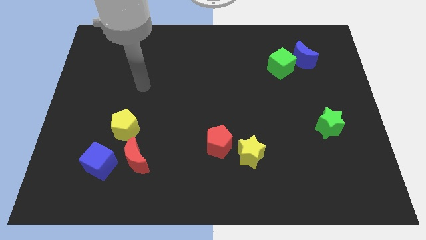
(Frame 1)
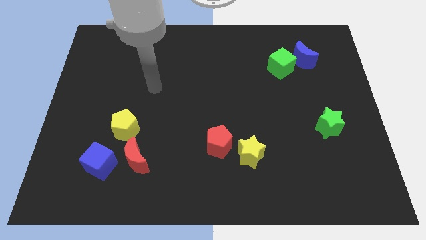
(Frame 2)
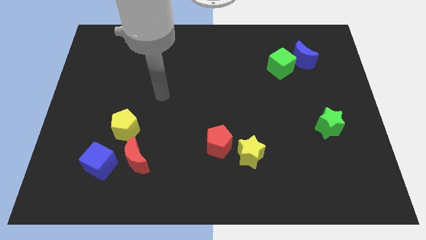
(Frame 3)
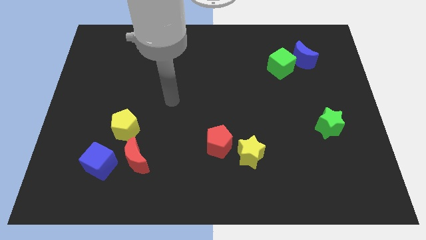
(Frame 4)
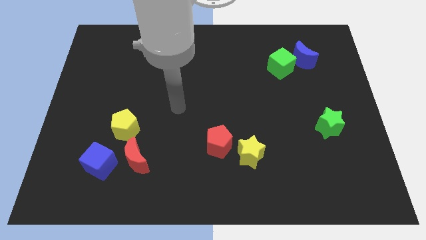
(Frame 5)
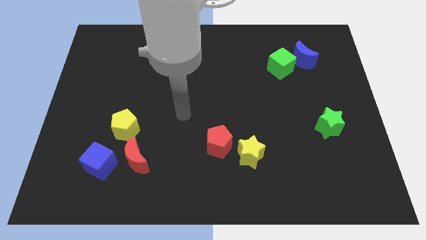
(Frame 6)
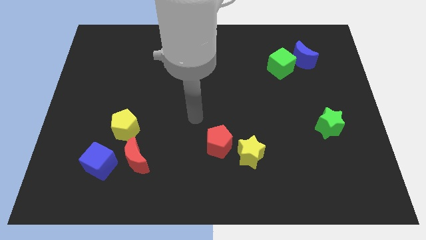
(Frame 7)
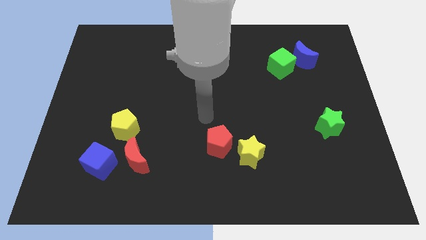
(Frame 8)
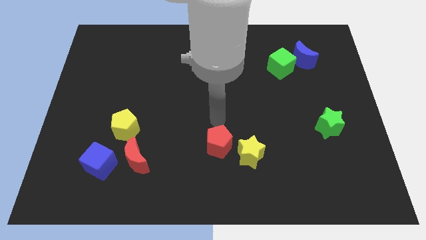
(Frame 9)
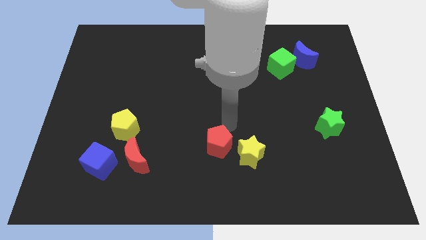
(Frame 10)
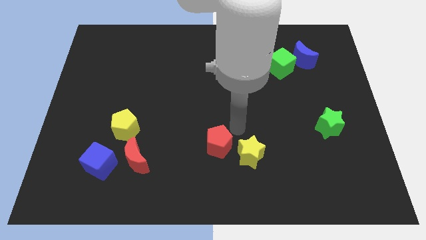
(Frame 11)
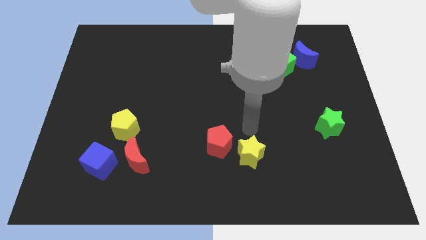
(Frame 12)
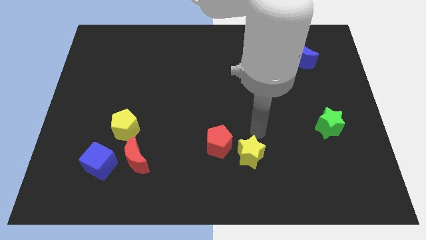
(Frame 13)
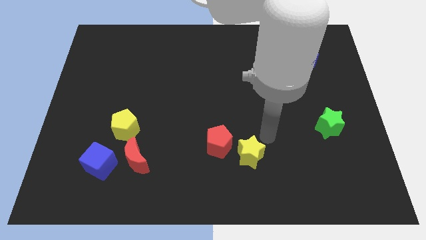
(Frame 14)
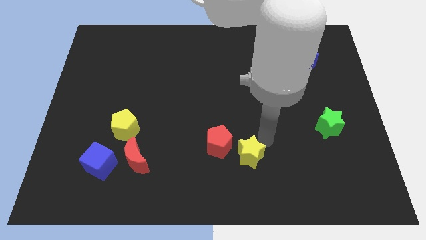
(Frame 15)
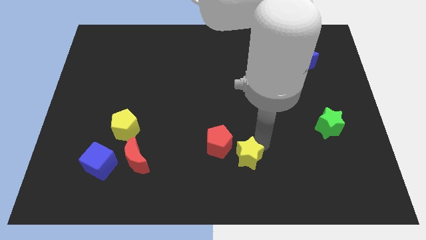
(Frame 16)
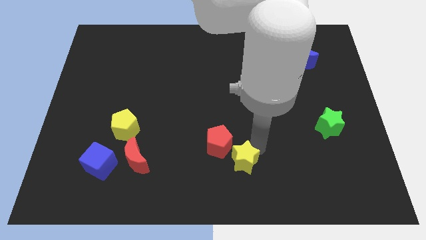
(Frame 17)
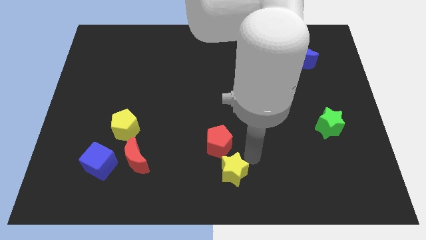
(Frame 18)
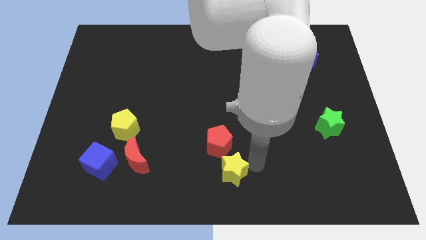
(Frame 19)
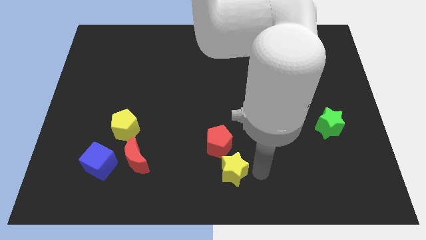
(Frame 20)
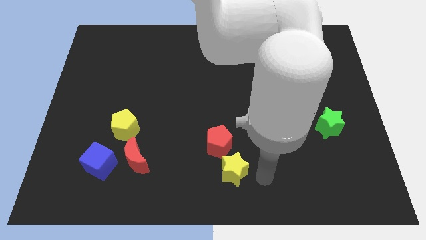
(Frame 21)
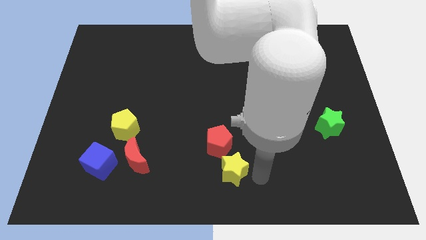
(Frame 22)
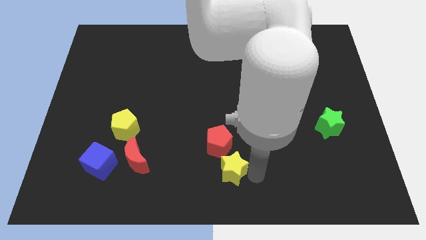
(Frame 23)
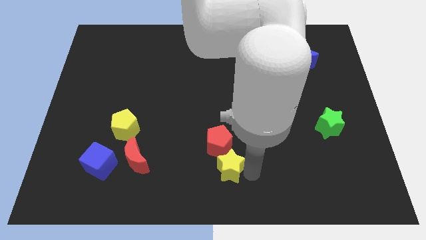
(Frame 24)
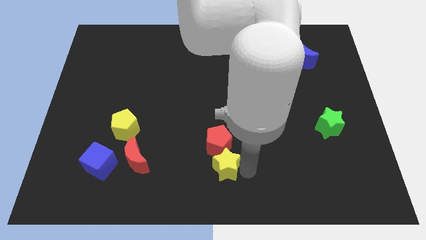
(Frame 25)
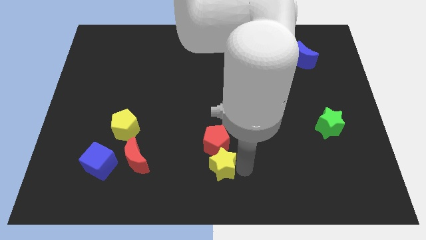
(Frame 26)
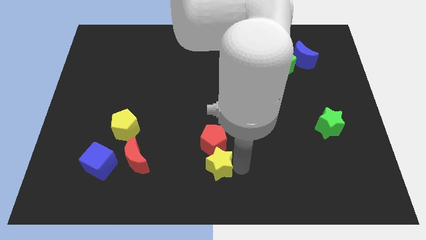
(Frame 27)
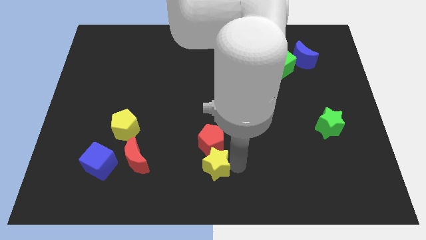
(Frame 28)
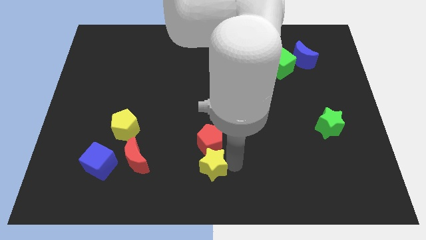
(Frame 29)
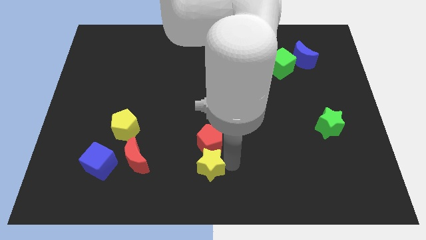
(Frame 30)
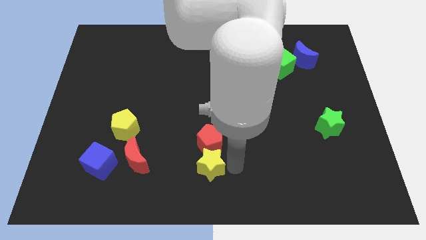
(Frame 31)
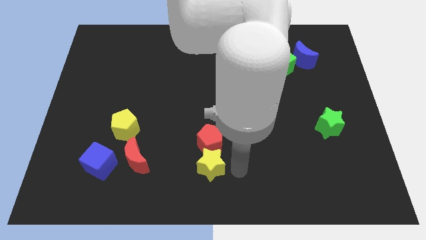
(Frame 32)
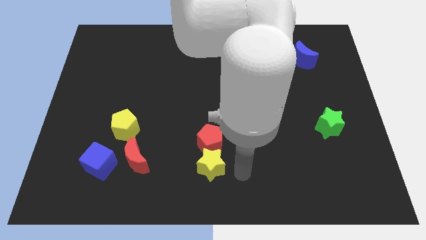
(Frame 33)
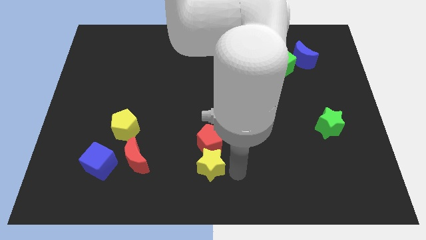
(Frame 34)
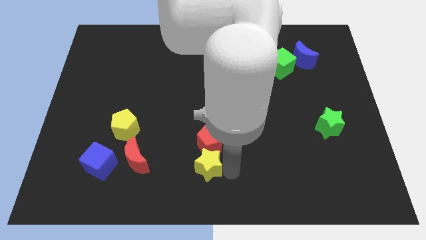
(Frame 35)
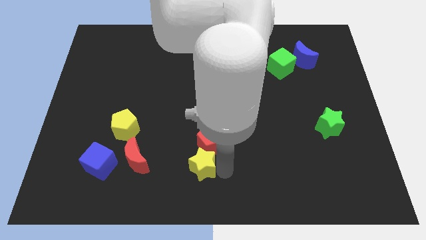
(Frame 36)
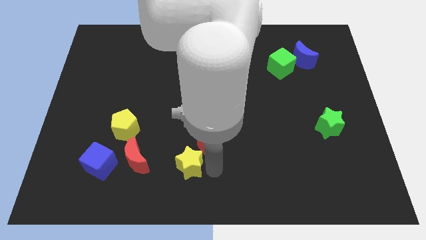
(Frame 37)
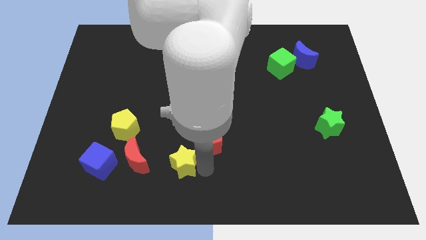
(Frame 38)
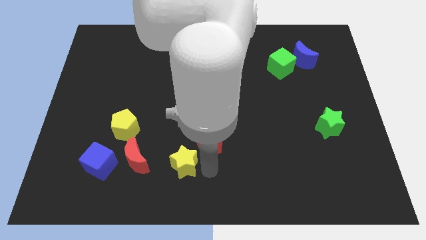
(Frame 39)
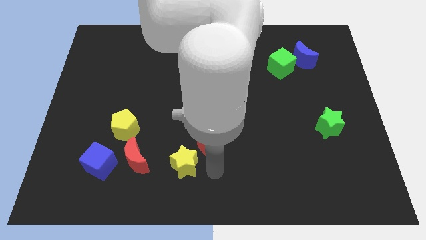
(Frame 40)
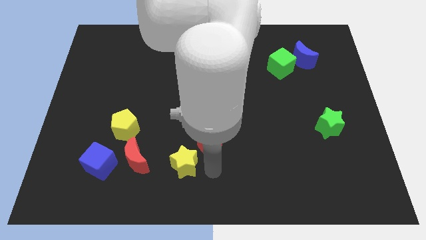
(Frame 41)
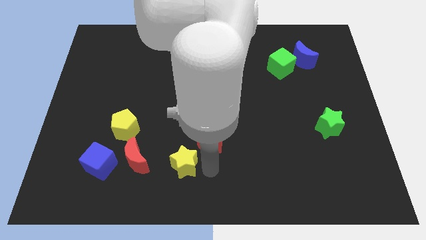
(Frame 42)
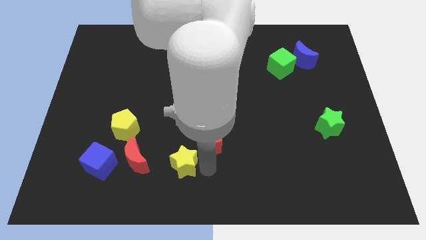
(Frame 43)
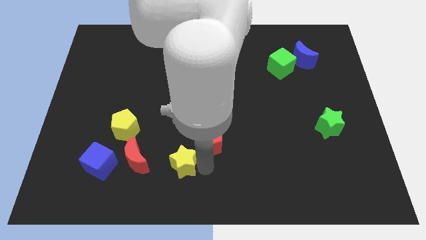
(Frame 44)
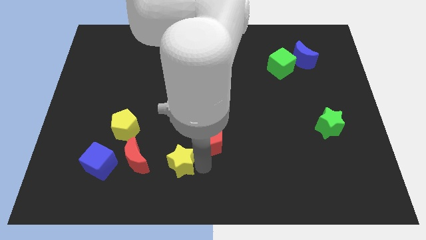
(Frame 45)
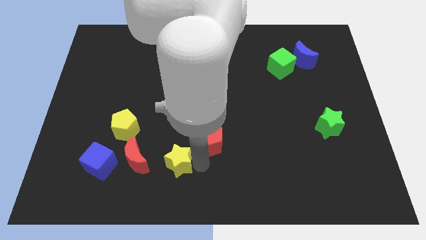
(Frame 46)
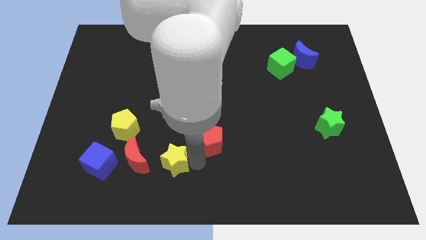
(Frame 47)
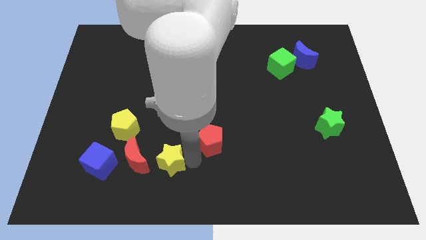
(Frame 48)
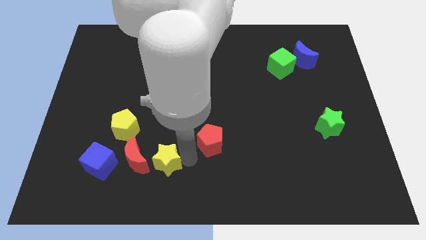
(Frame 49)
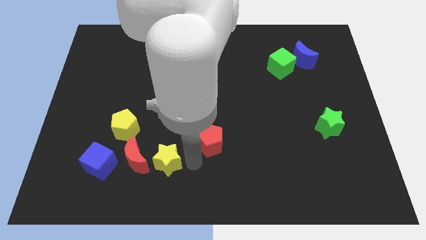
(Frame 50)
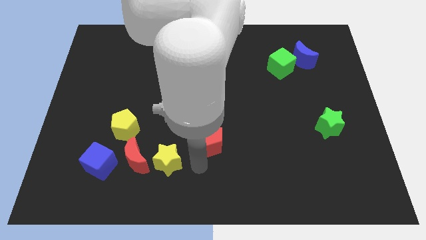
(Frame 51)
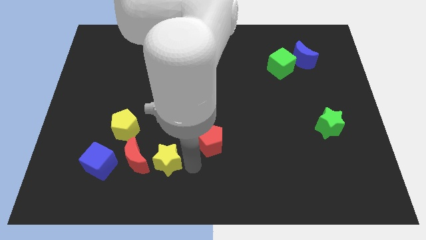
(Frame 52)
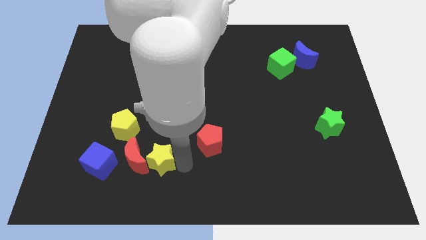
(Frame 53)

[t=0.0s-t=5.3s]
slide the yellow star close to the red moon

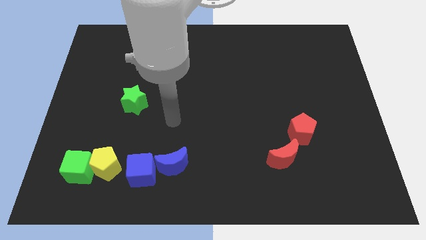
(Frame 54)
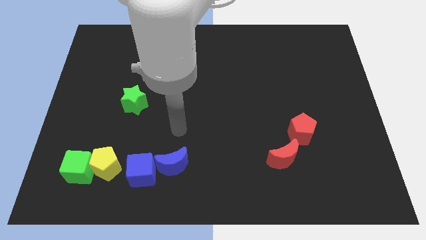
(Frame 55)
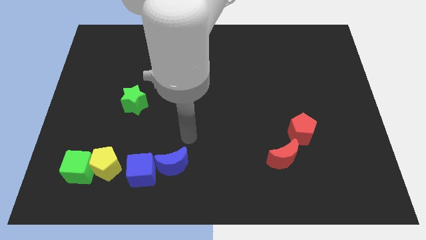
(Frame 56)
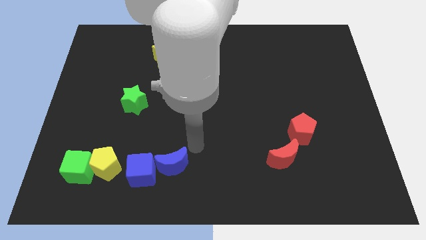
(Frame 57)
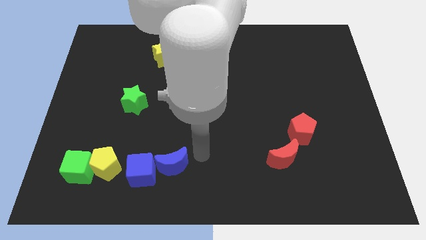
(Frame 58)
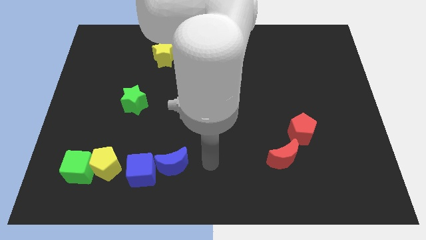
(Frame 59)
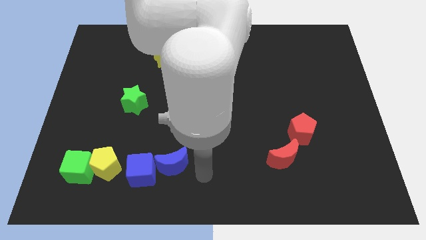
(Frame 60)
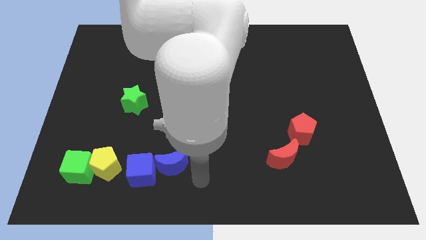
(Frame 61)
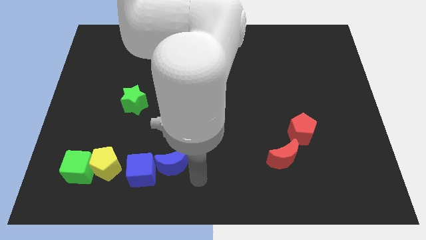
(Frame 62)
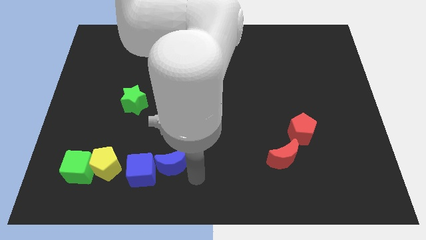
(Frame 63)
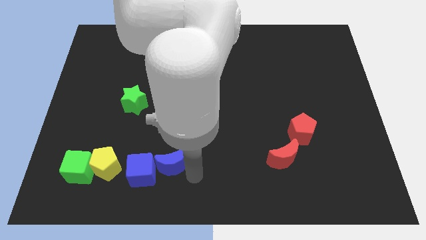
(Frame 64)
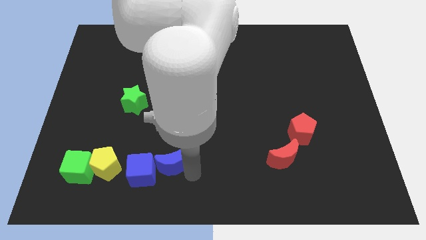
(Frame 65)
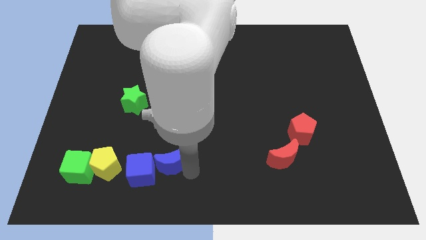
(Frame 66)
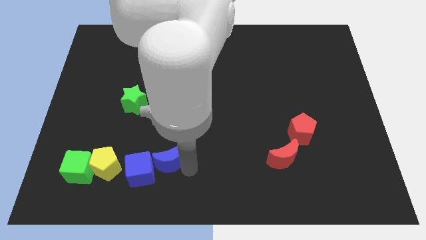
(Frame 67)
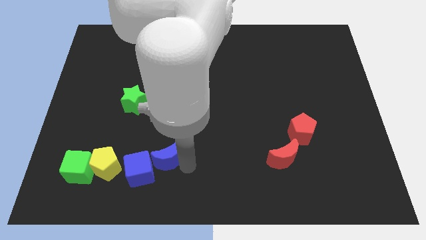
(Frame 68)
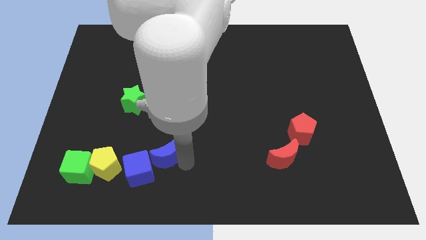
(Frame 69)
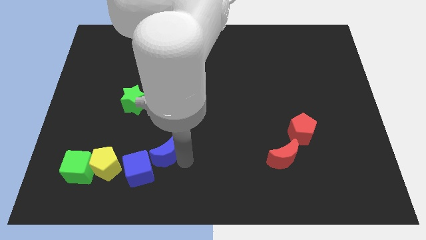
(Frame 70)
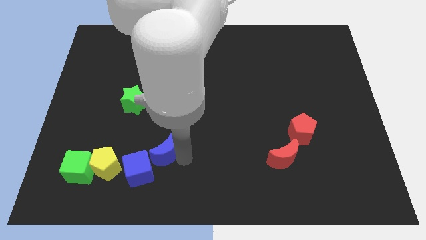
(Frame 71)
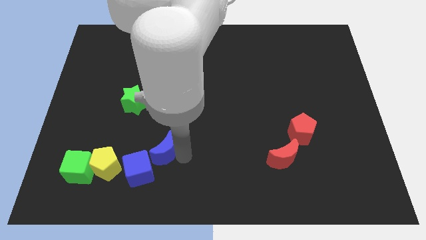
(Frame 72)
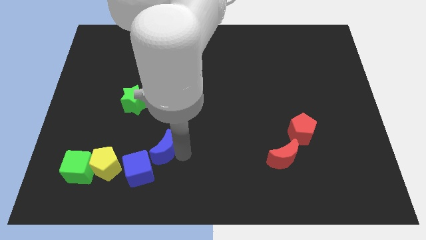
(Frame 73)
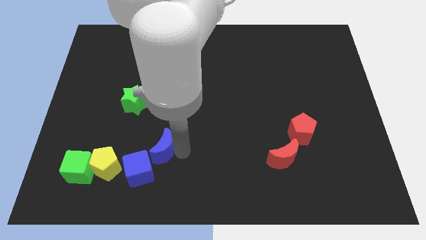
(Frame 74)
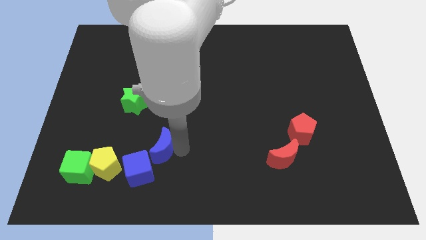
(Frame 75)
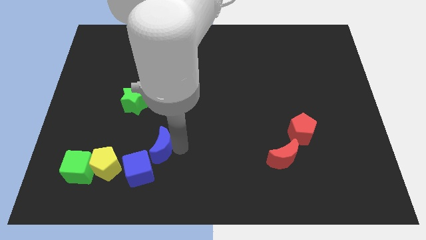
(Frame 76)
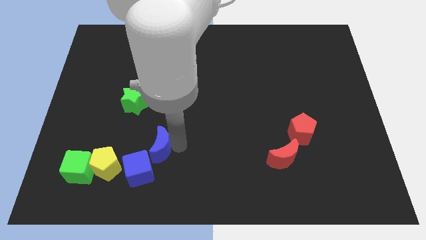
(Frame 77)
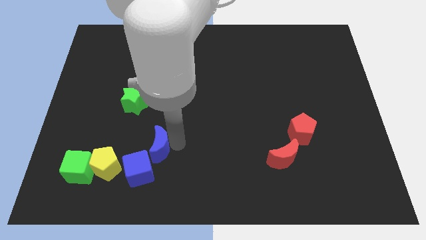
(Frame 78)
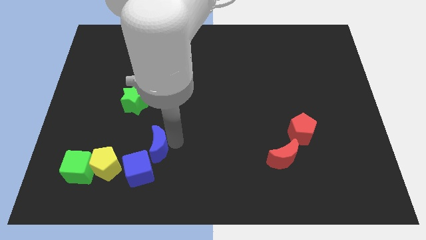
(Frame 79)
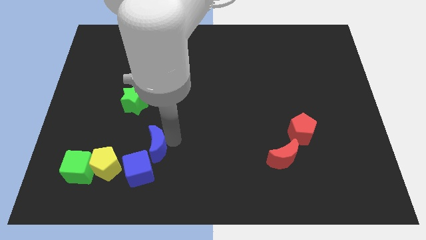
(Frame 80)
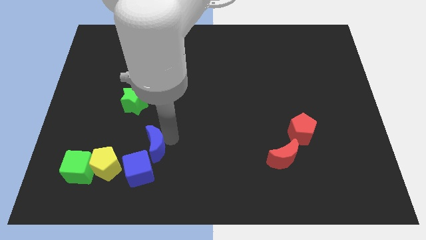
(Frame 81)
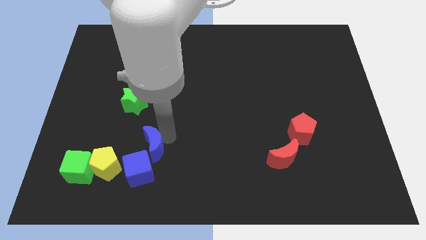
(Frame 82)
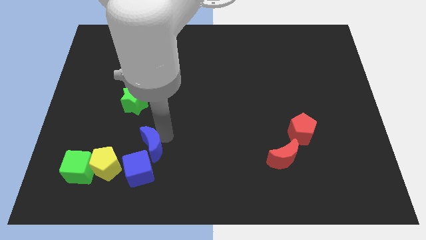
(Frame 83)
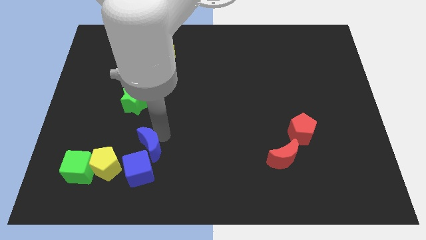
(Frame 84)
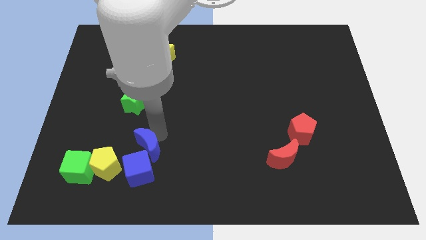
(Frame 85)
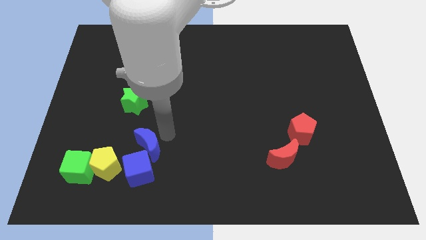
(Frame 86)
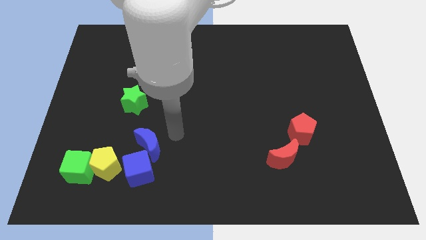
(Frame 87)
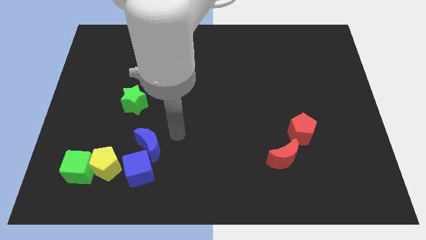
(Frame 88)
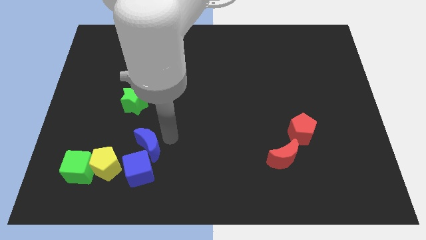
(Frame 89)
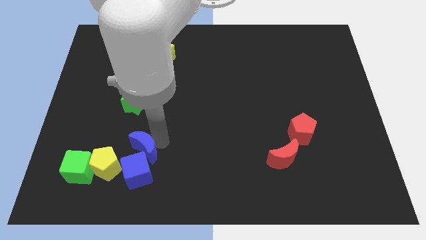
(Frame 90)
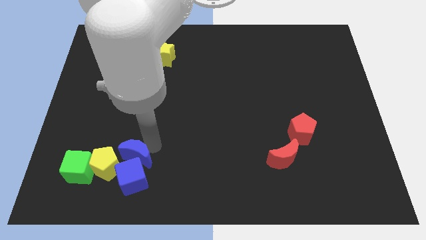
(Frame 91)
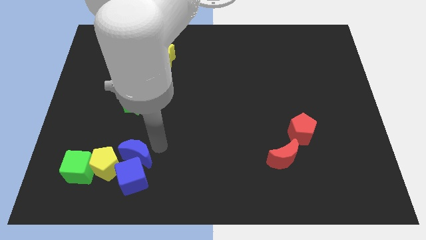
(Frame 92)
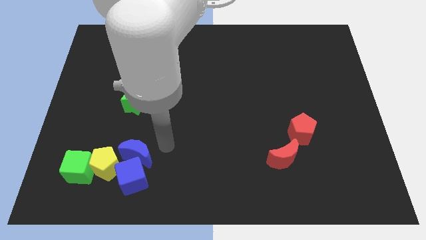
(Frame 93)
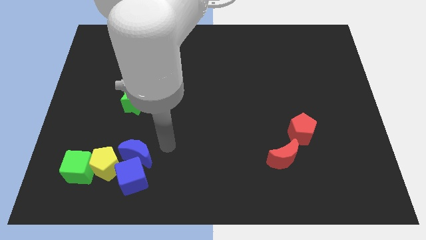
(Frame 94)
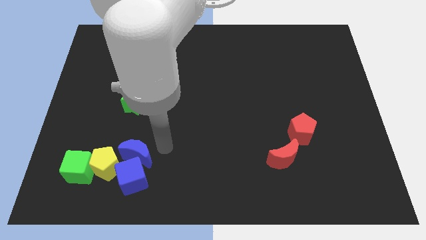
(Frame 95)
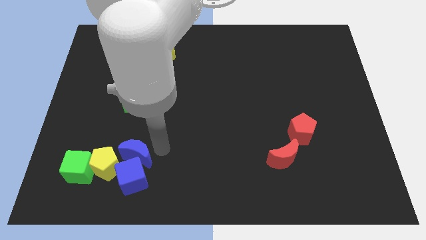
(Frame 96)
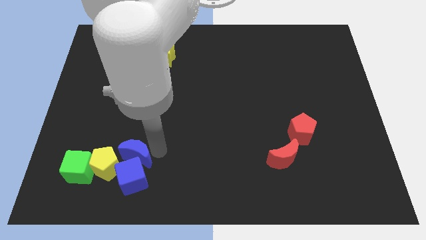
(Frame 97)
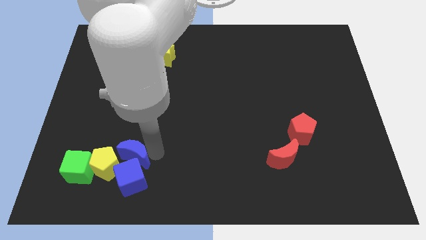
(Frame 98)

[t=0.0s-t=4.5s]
move the blue moon towards the yellow pentagon
